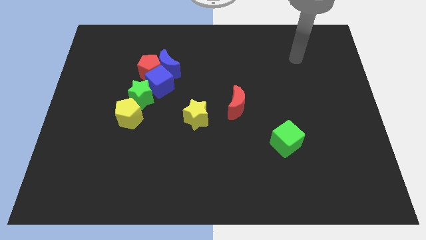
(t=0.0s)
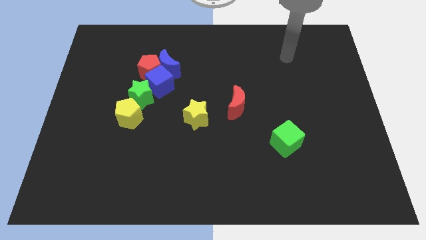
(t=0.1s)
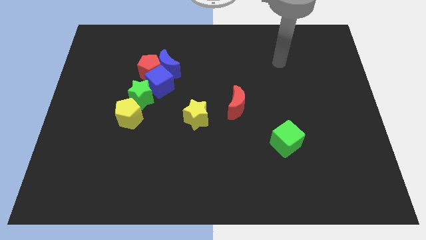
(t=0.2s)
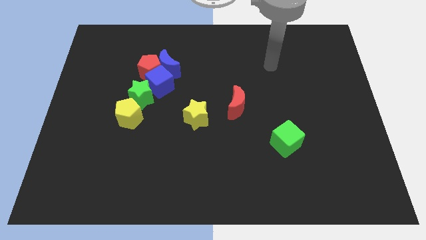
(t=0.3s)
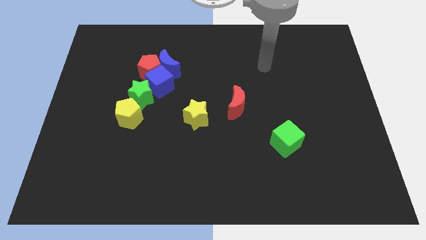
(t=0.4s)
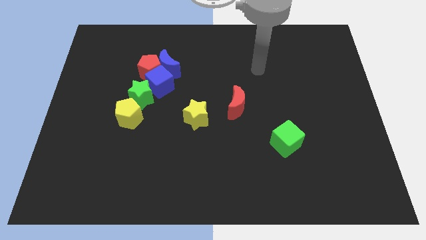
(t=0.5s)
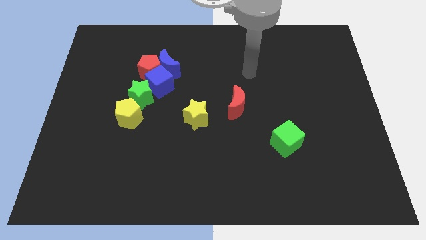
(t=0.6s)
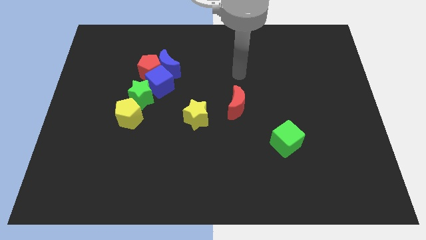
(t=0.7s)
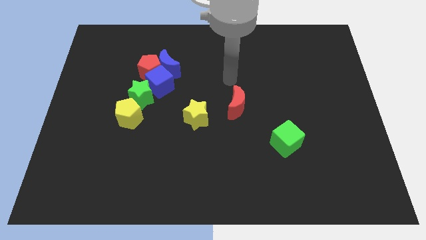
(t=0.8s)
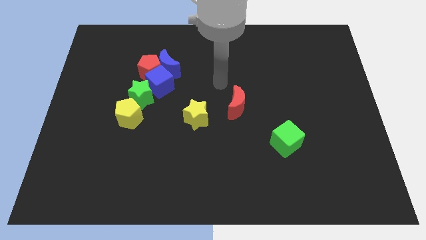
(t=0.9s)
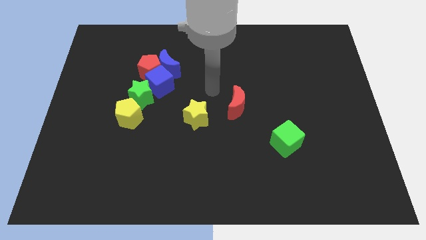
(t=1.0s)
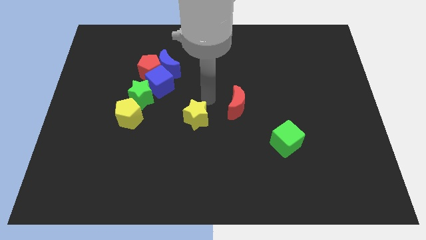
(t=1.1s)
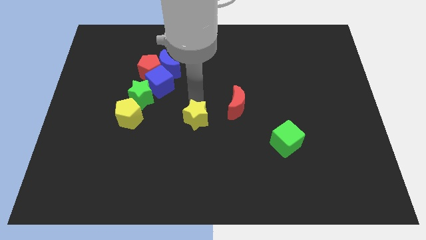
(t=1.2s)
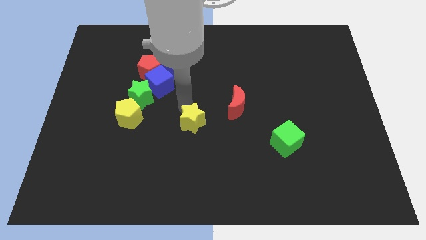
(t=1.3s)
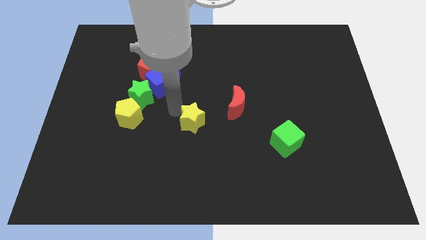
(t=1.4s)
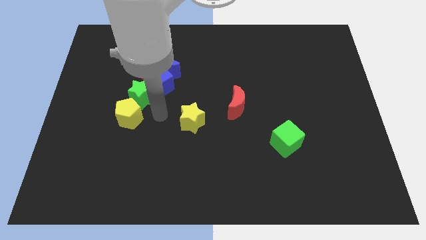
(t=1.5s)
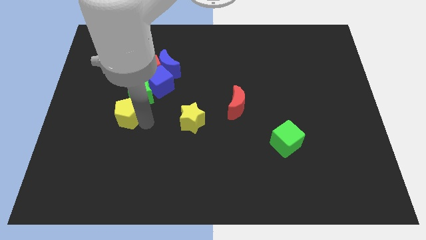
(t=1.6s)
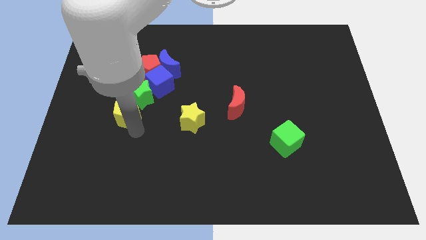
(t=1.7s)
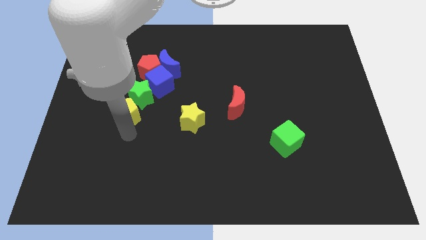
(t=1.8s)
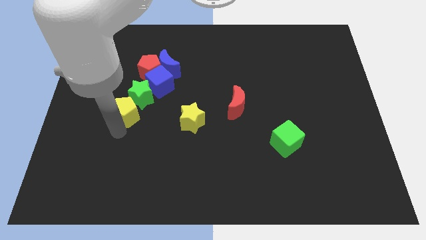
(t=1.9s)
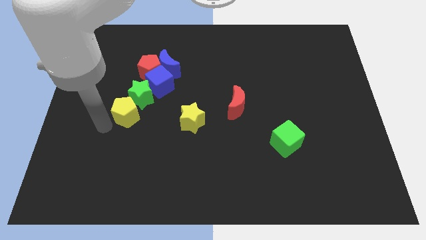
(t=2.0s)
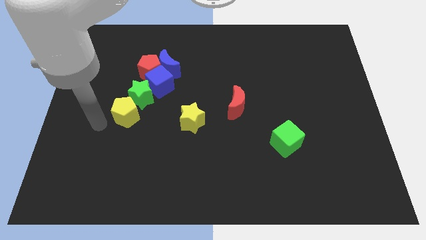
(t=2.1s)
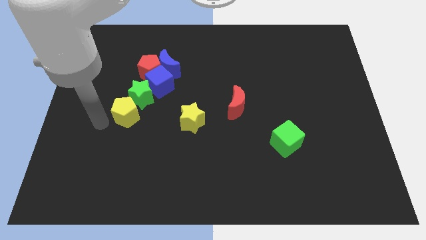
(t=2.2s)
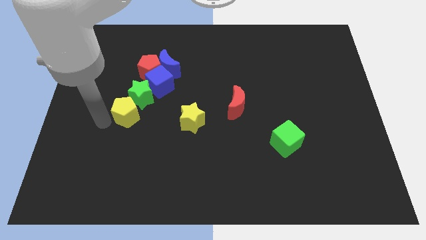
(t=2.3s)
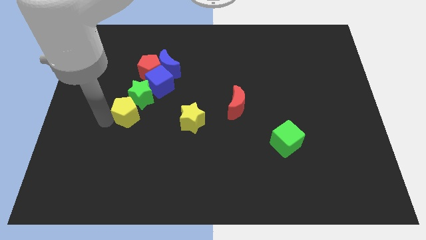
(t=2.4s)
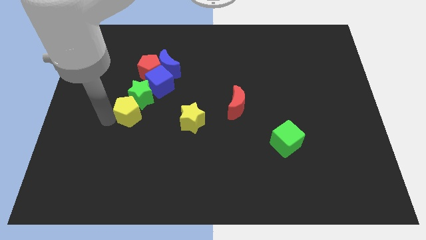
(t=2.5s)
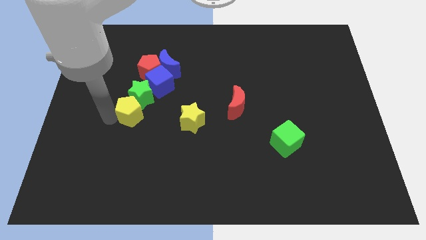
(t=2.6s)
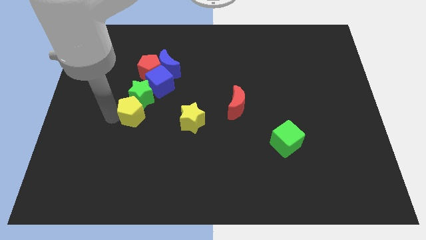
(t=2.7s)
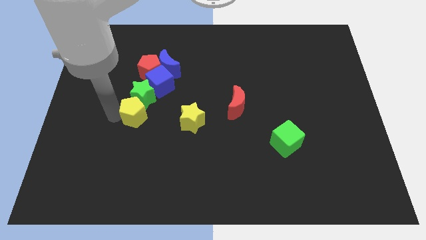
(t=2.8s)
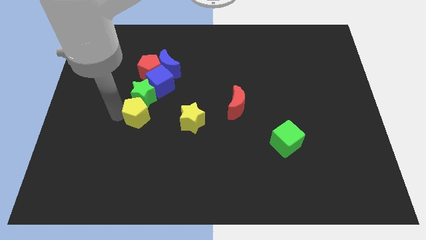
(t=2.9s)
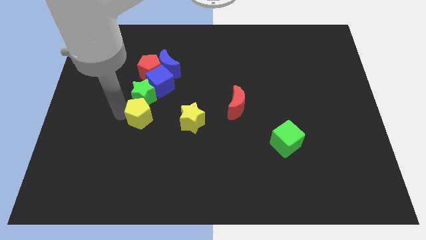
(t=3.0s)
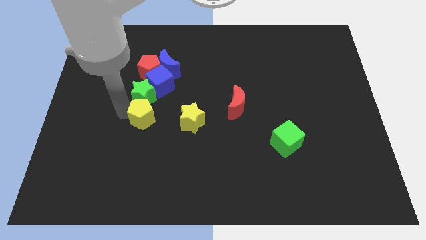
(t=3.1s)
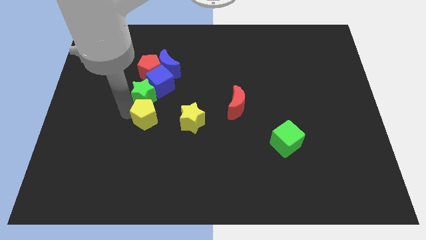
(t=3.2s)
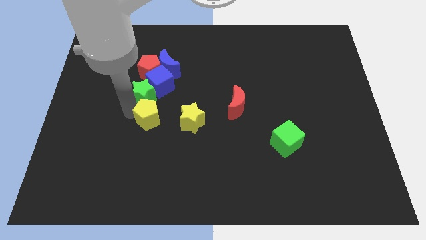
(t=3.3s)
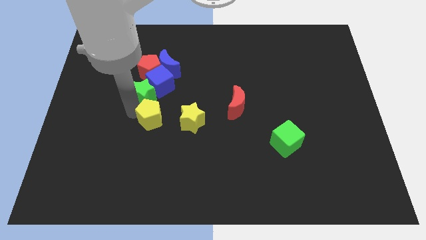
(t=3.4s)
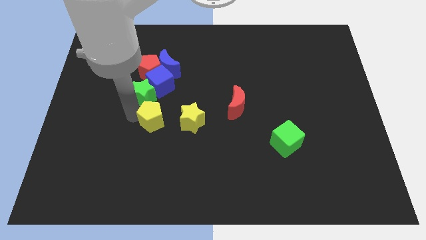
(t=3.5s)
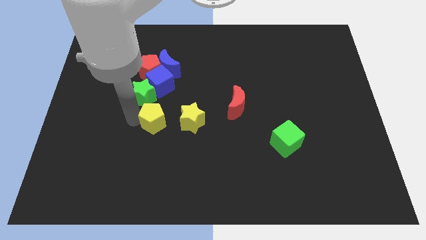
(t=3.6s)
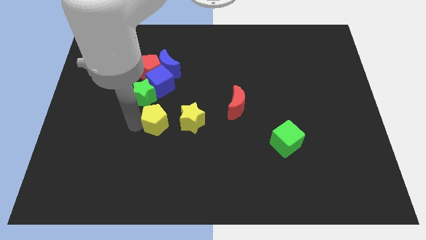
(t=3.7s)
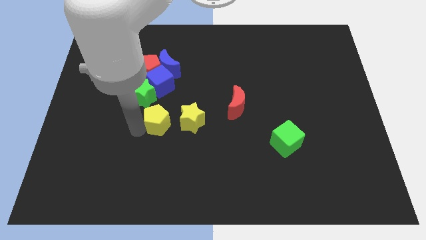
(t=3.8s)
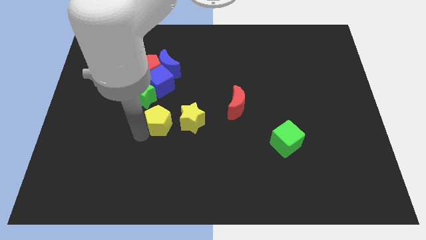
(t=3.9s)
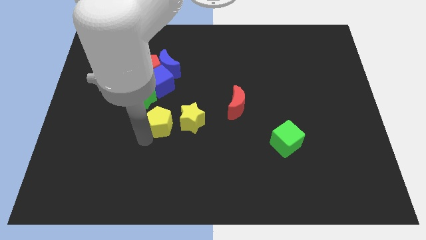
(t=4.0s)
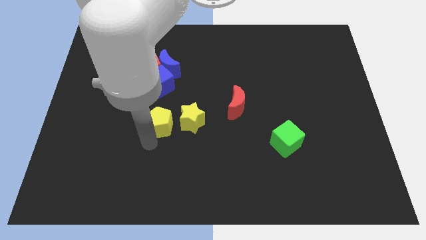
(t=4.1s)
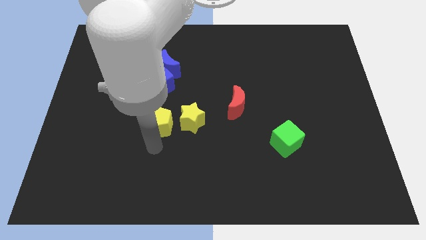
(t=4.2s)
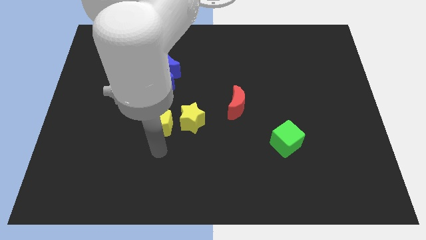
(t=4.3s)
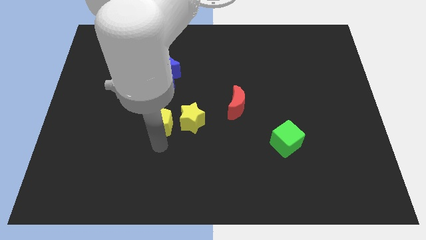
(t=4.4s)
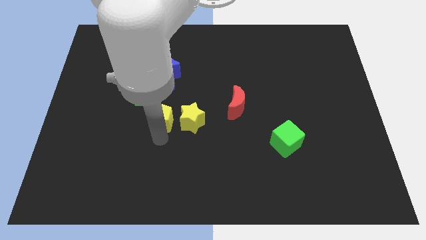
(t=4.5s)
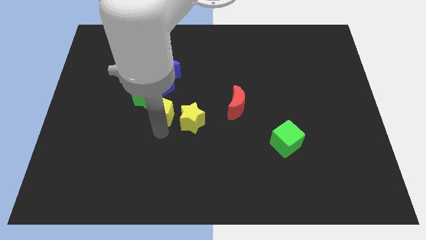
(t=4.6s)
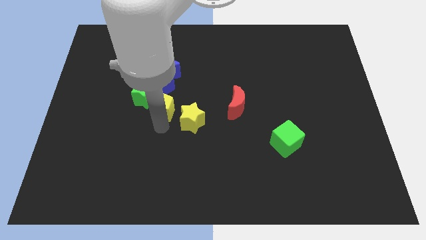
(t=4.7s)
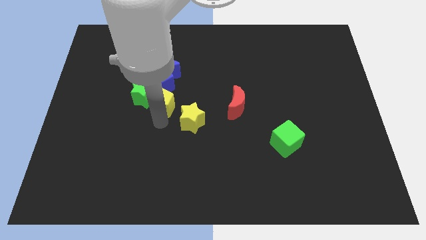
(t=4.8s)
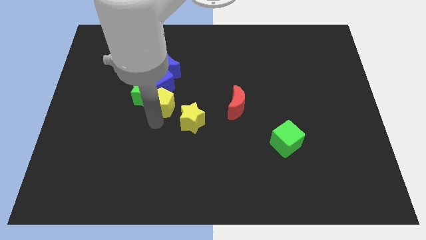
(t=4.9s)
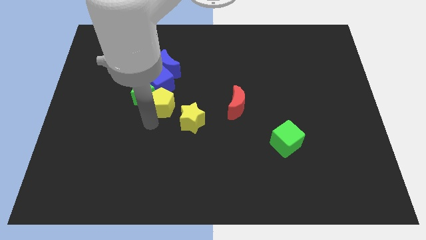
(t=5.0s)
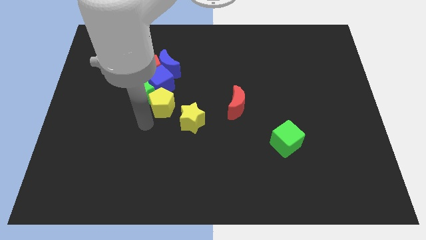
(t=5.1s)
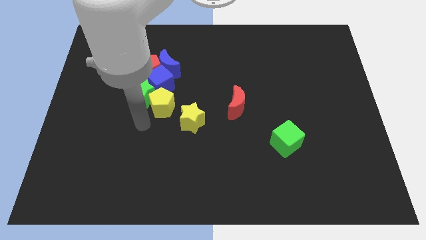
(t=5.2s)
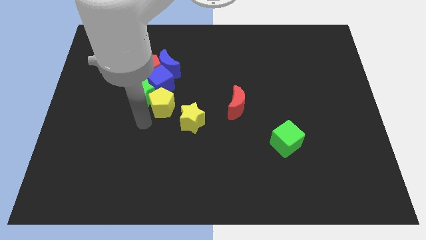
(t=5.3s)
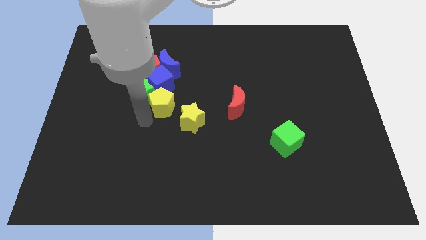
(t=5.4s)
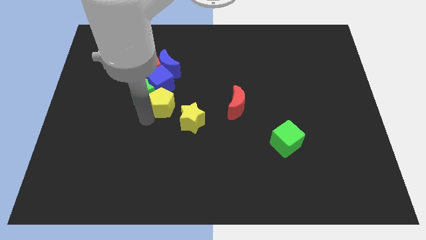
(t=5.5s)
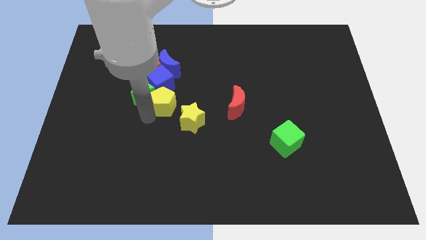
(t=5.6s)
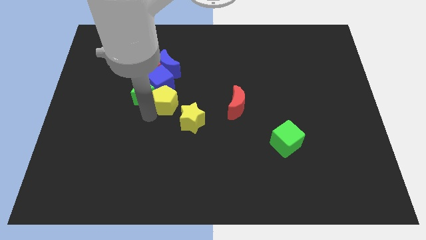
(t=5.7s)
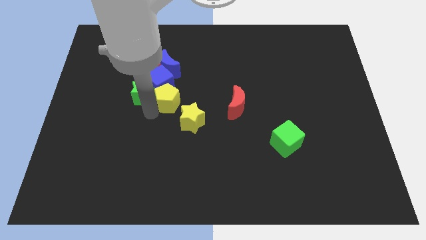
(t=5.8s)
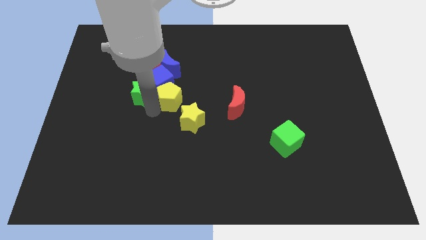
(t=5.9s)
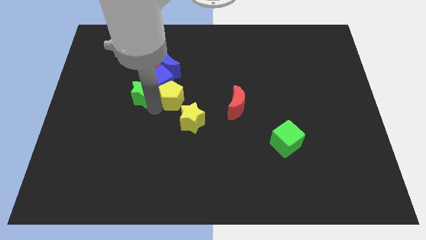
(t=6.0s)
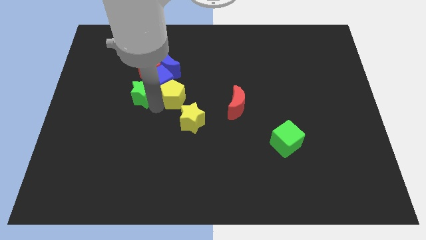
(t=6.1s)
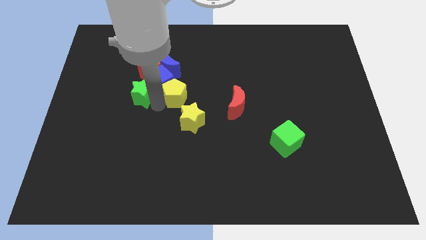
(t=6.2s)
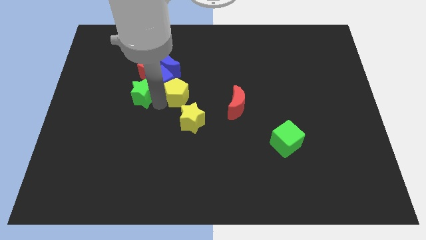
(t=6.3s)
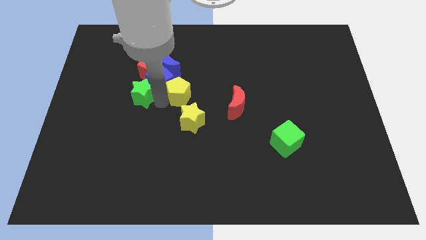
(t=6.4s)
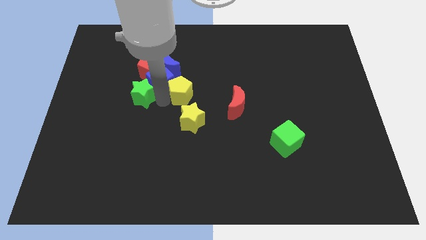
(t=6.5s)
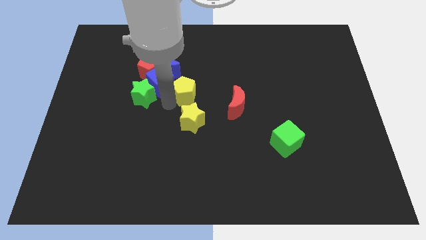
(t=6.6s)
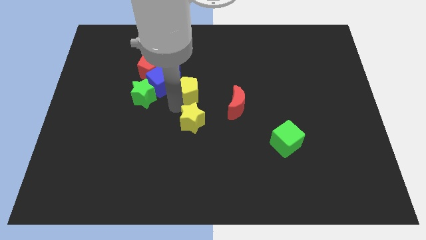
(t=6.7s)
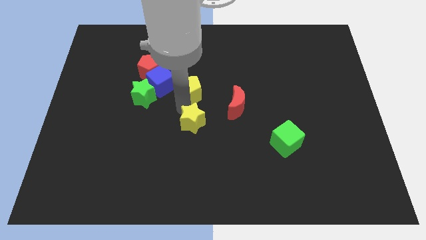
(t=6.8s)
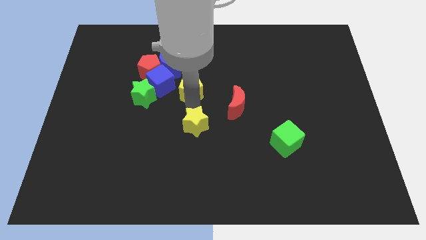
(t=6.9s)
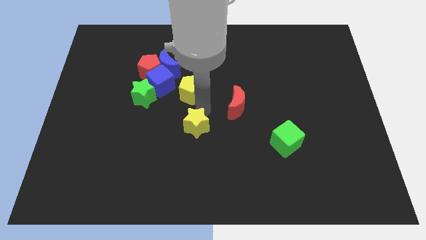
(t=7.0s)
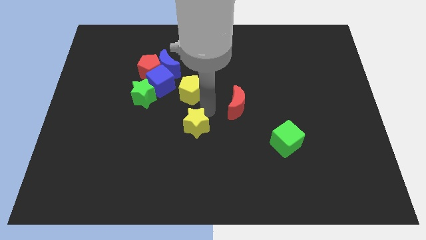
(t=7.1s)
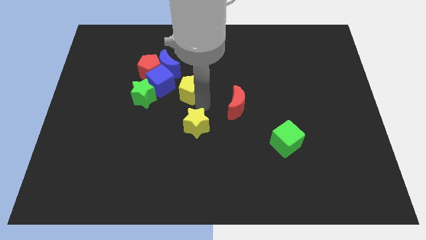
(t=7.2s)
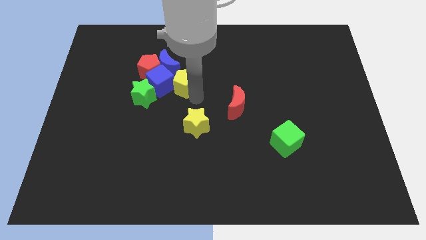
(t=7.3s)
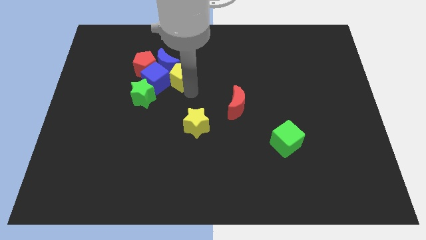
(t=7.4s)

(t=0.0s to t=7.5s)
slide the yellow pentagon to the blue moon
